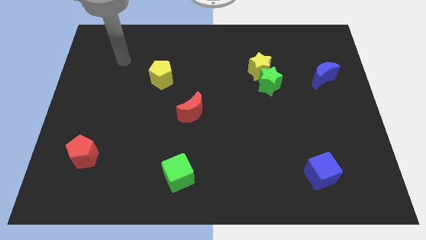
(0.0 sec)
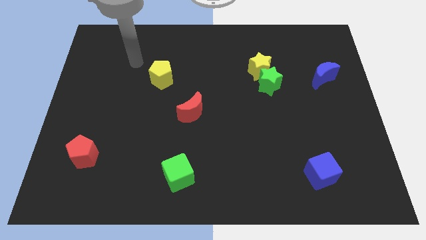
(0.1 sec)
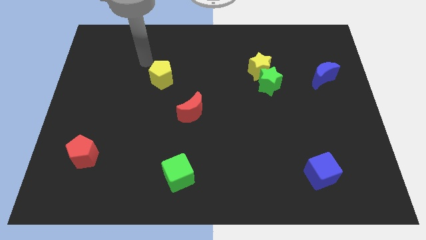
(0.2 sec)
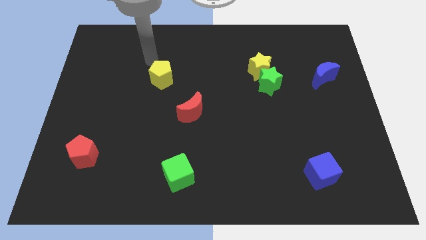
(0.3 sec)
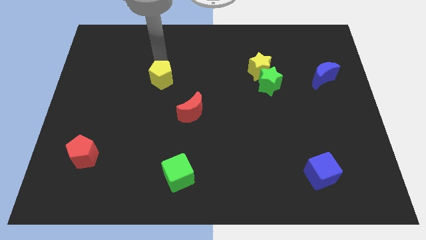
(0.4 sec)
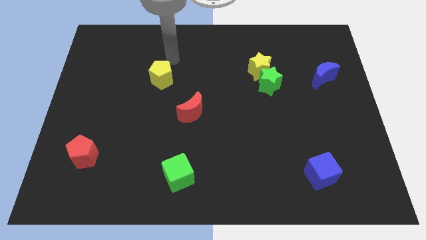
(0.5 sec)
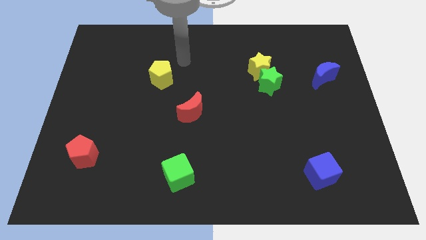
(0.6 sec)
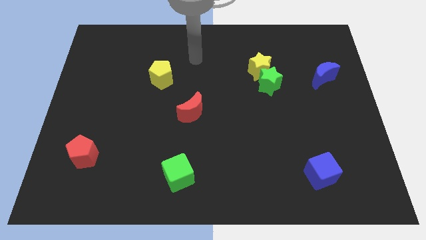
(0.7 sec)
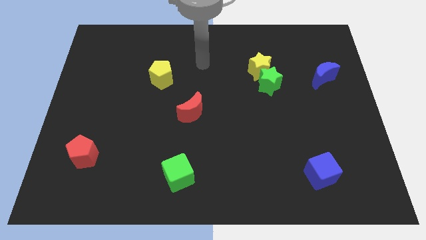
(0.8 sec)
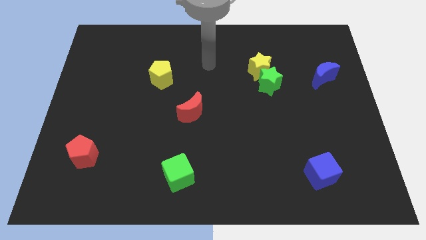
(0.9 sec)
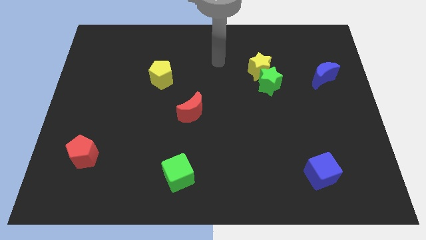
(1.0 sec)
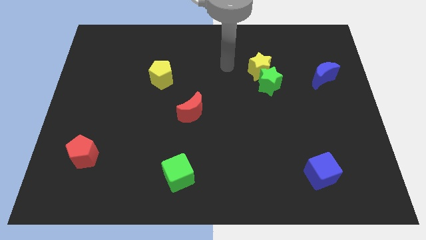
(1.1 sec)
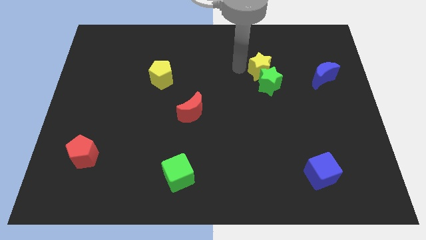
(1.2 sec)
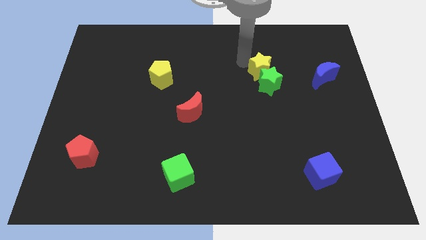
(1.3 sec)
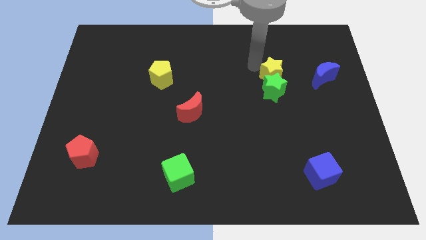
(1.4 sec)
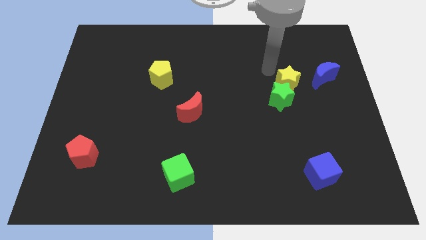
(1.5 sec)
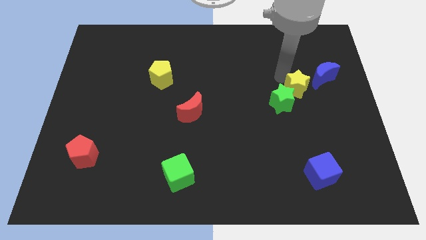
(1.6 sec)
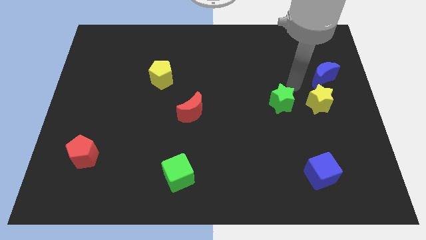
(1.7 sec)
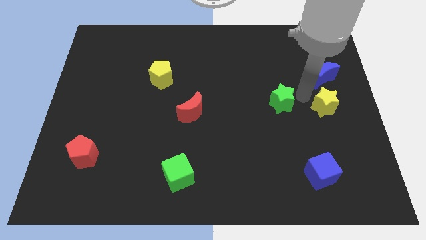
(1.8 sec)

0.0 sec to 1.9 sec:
separate the green star from the yellow star

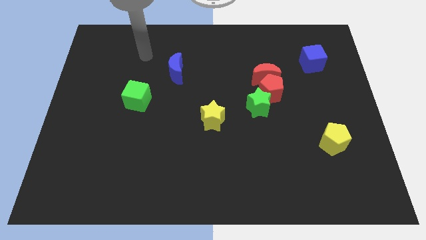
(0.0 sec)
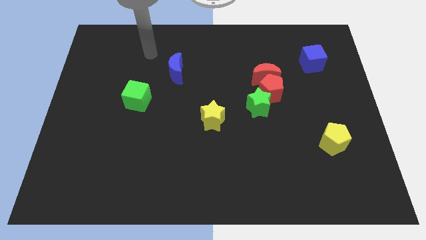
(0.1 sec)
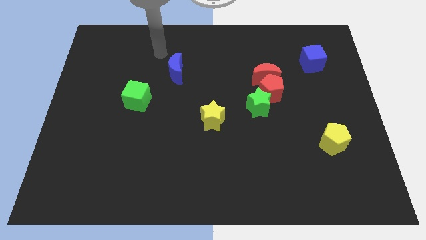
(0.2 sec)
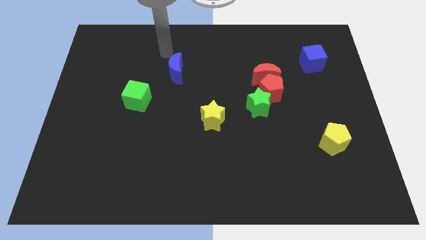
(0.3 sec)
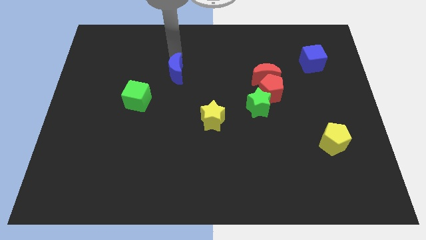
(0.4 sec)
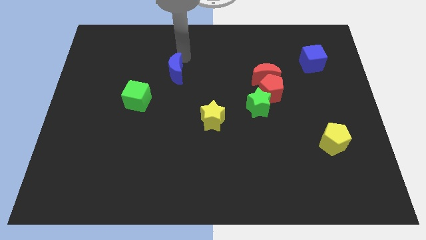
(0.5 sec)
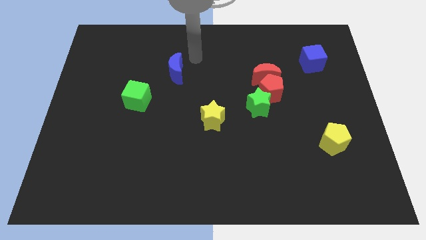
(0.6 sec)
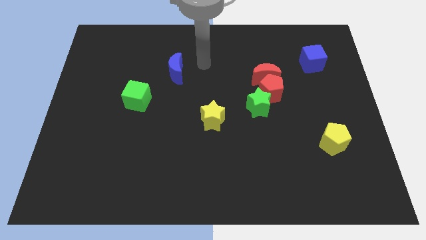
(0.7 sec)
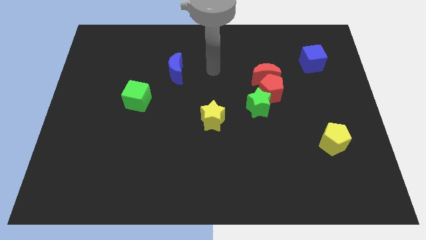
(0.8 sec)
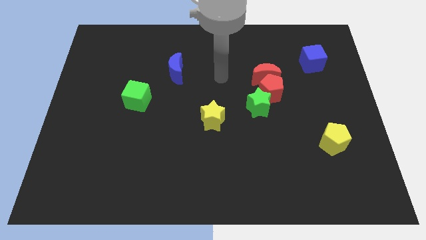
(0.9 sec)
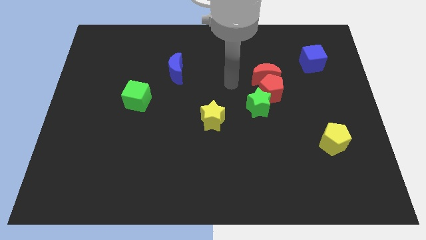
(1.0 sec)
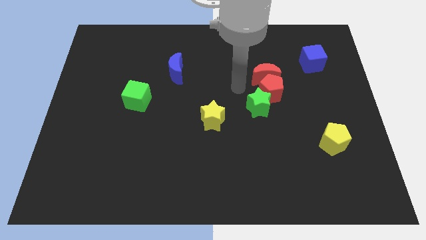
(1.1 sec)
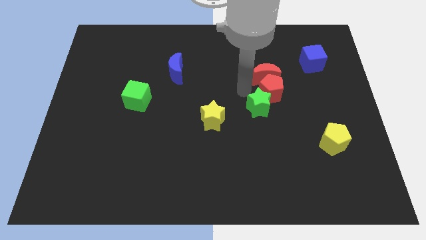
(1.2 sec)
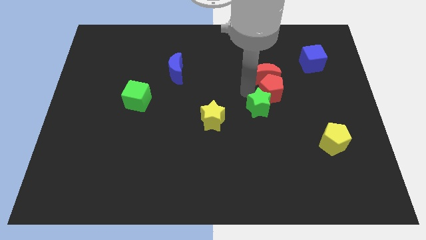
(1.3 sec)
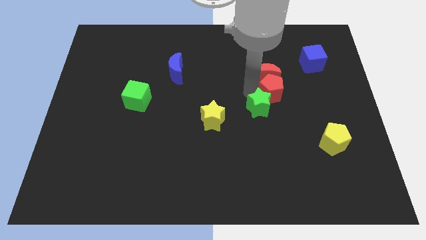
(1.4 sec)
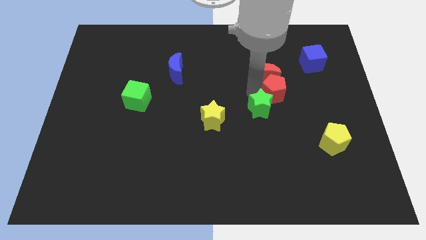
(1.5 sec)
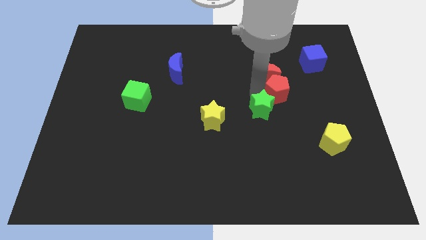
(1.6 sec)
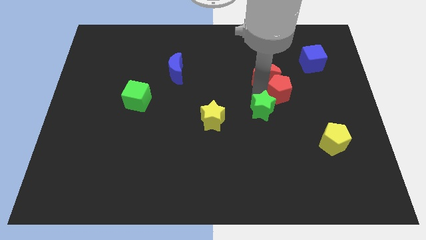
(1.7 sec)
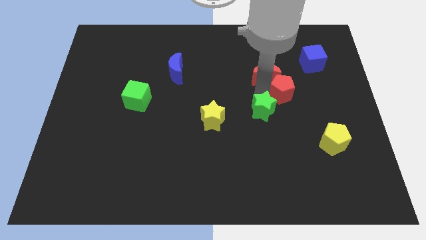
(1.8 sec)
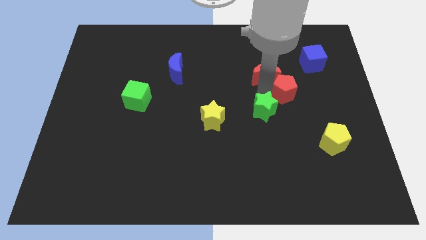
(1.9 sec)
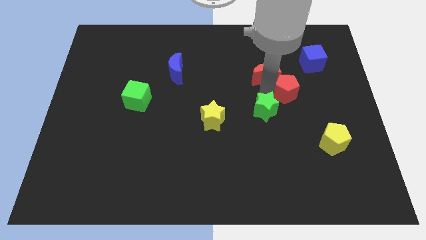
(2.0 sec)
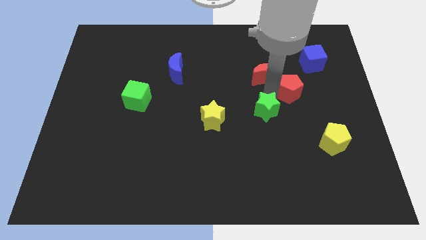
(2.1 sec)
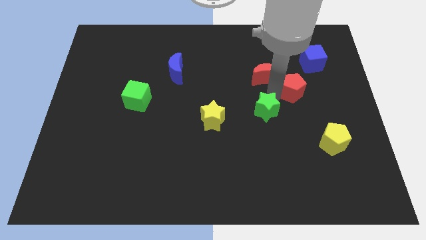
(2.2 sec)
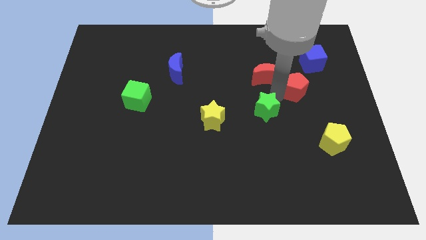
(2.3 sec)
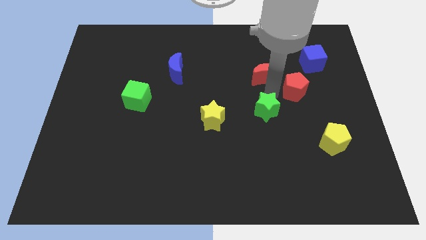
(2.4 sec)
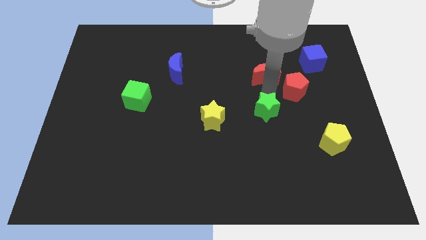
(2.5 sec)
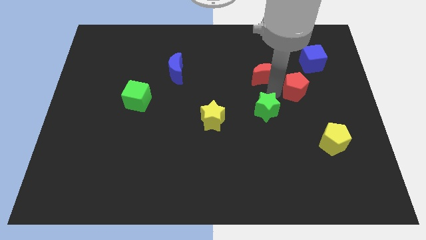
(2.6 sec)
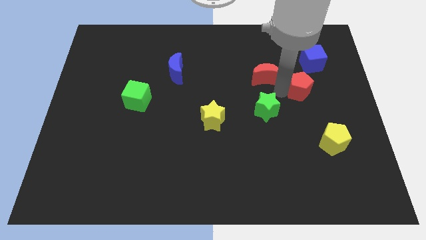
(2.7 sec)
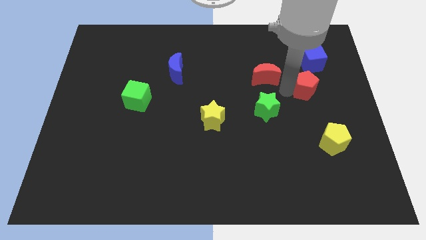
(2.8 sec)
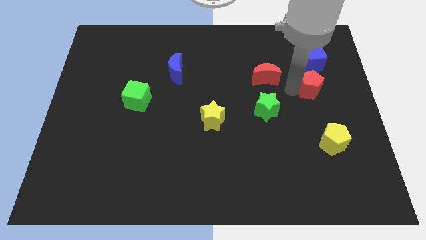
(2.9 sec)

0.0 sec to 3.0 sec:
separate the red pentagon from the red moon and green star

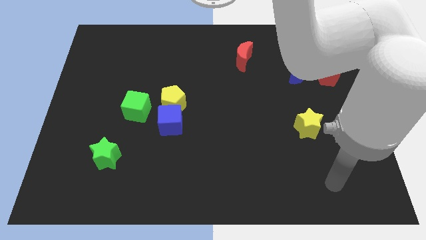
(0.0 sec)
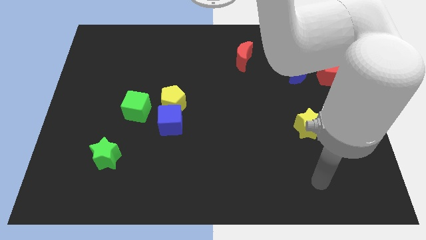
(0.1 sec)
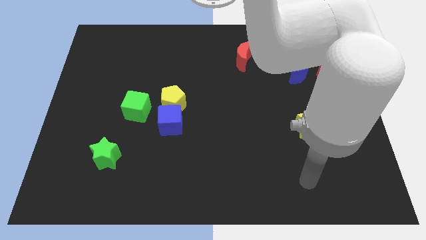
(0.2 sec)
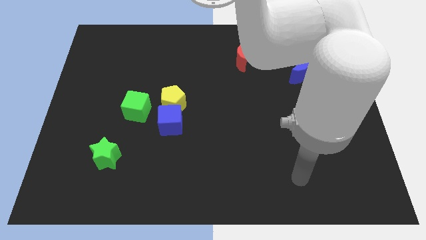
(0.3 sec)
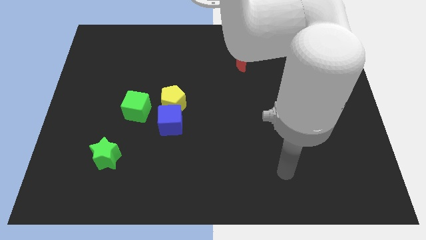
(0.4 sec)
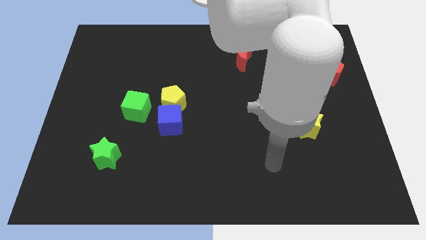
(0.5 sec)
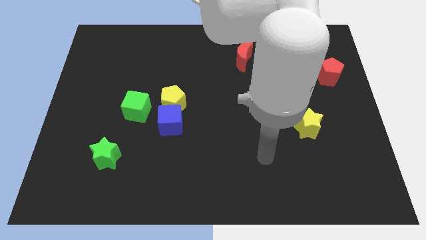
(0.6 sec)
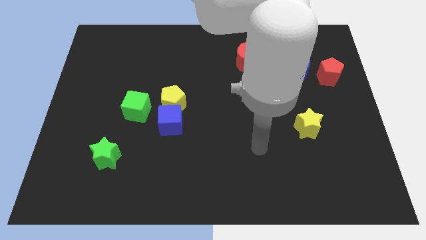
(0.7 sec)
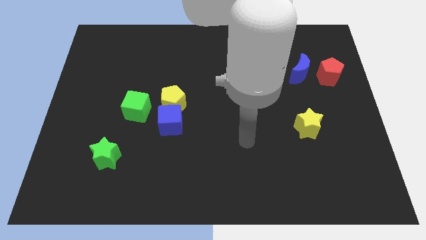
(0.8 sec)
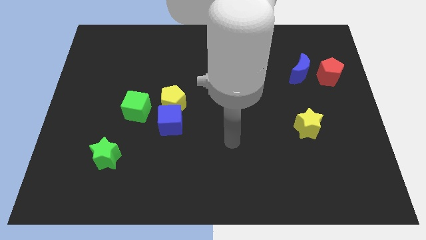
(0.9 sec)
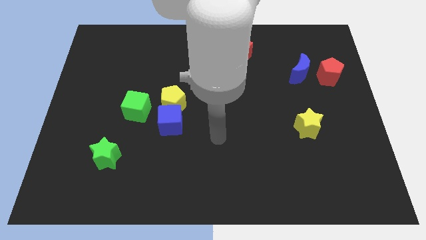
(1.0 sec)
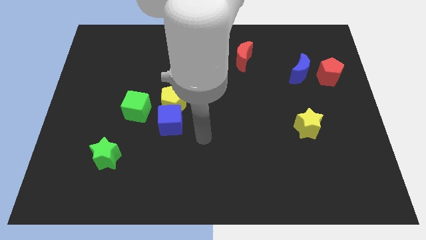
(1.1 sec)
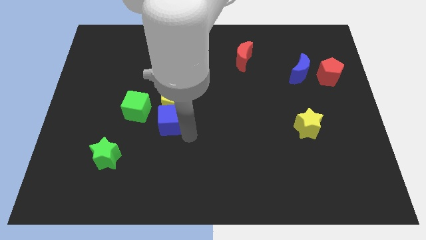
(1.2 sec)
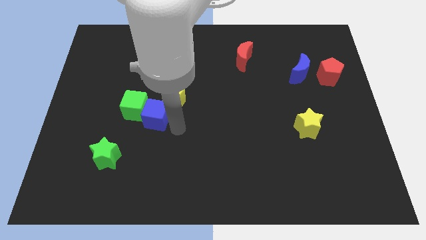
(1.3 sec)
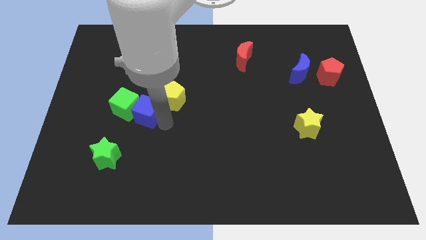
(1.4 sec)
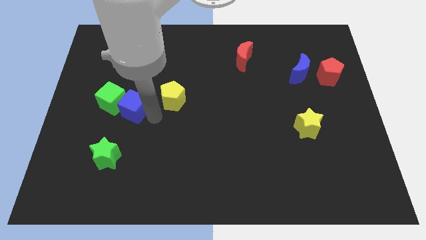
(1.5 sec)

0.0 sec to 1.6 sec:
separate the yellow pentagon from the blue cube and green cube

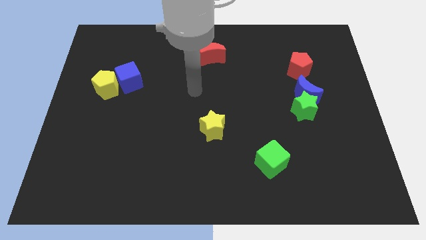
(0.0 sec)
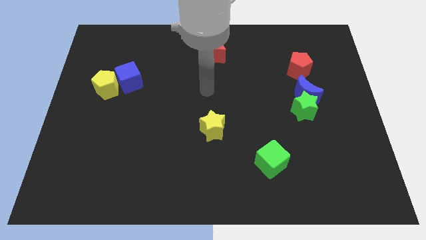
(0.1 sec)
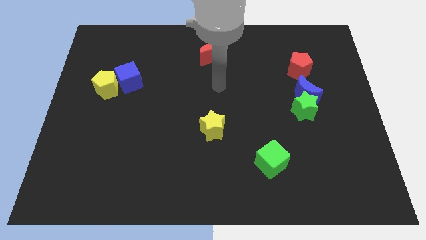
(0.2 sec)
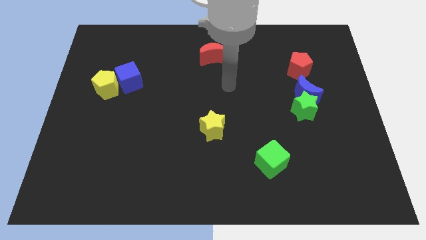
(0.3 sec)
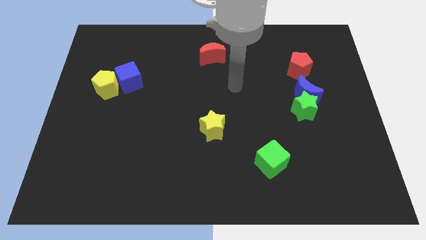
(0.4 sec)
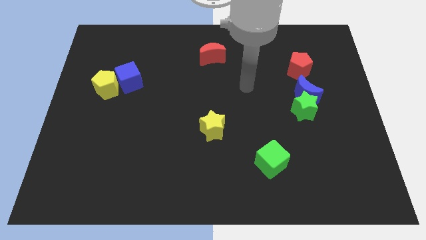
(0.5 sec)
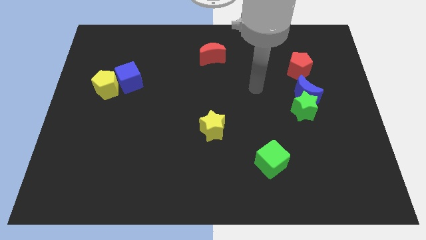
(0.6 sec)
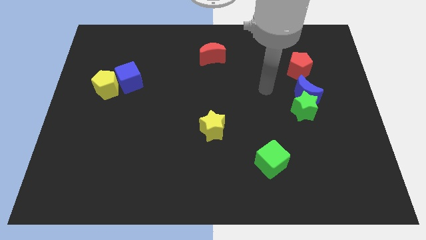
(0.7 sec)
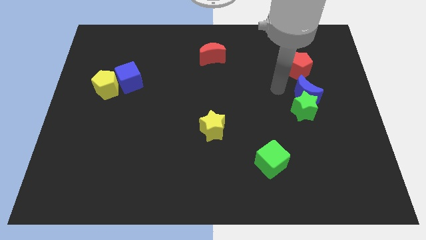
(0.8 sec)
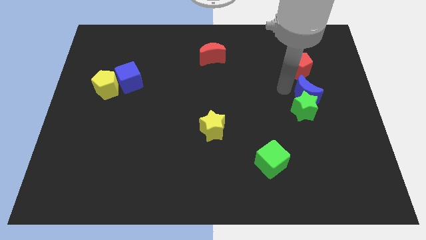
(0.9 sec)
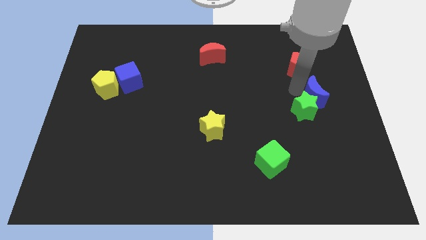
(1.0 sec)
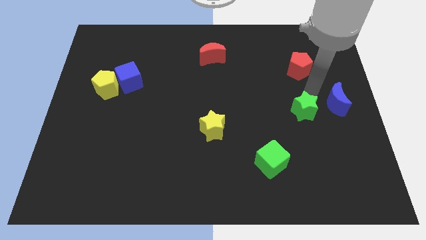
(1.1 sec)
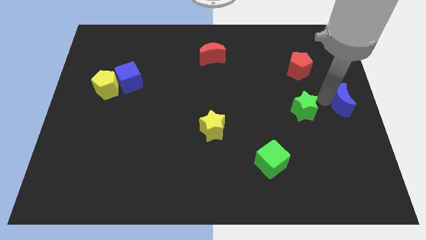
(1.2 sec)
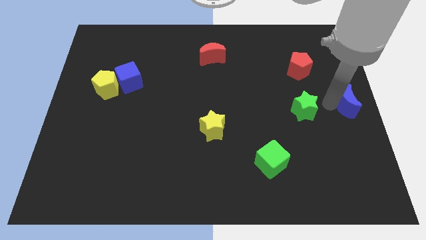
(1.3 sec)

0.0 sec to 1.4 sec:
move the green star away from the blue moon

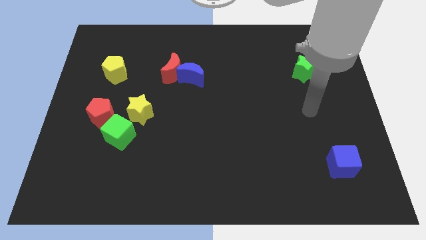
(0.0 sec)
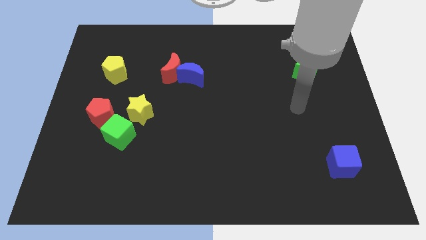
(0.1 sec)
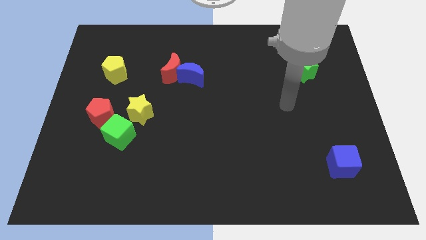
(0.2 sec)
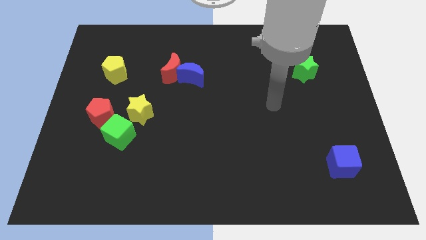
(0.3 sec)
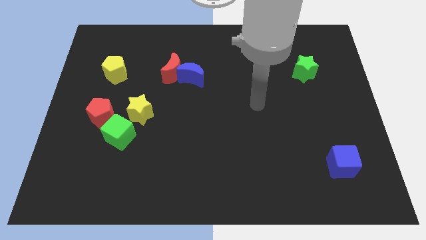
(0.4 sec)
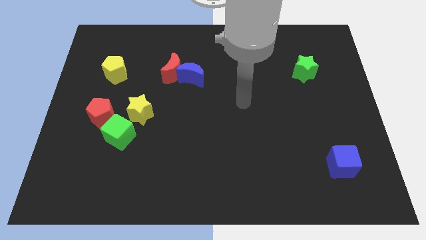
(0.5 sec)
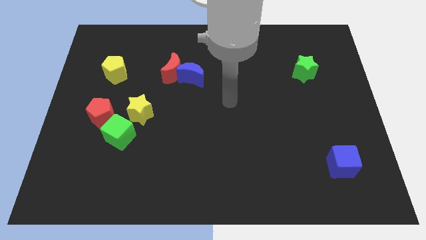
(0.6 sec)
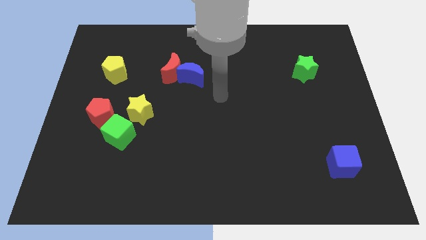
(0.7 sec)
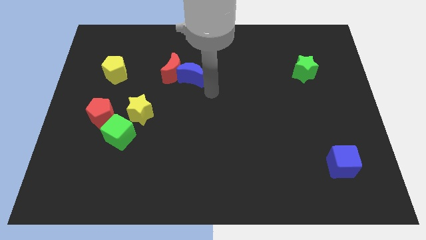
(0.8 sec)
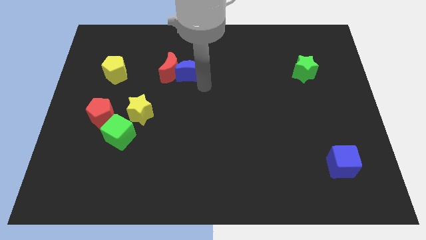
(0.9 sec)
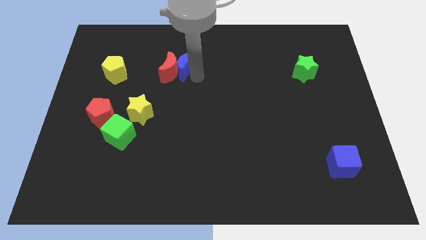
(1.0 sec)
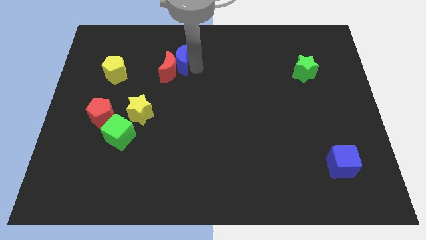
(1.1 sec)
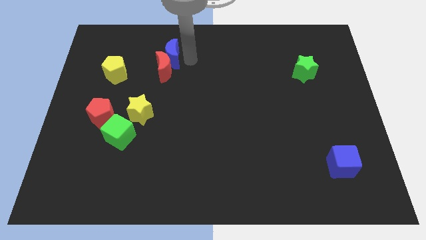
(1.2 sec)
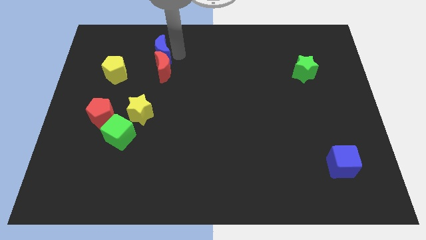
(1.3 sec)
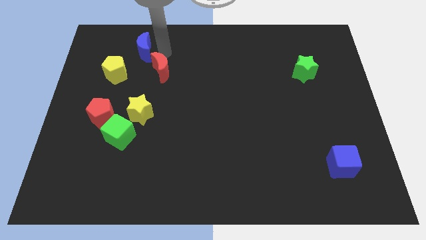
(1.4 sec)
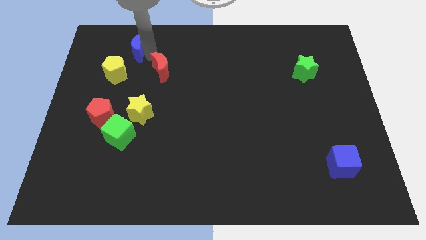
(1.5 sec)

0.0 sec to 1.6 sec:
pull the red moon apart from the blue moon
